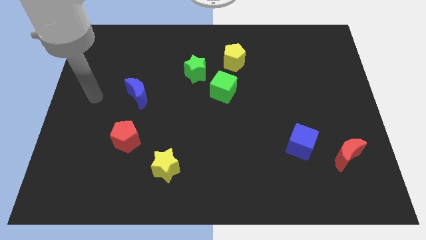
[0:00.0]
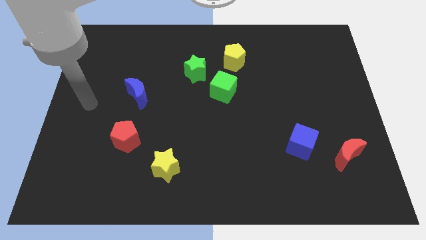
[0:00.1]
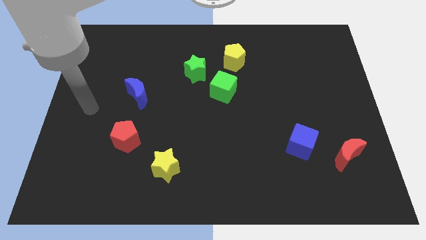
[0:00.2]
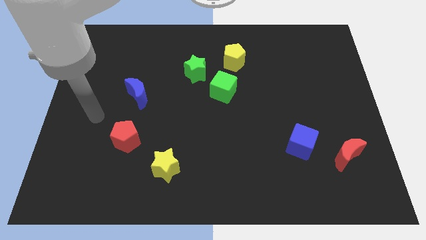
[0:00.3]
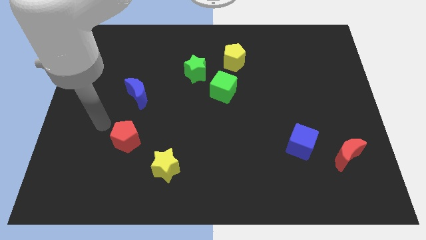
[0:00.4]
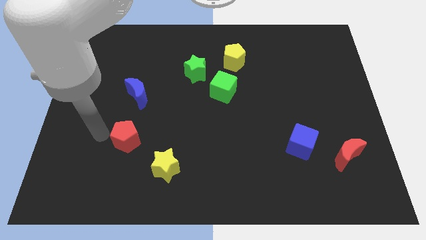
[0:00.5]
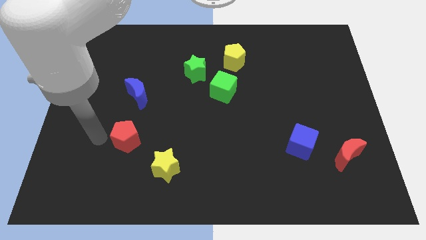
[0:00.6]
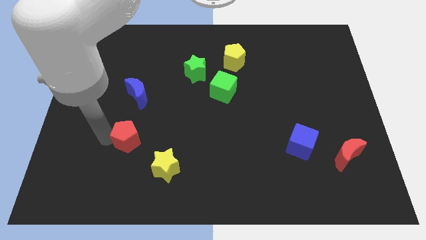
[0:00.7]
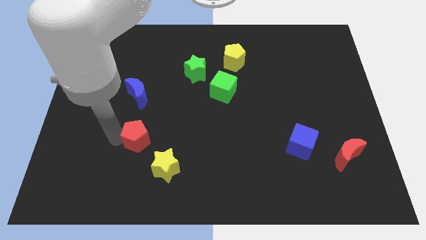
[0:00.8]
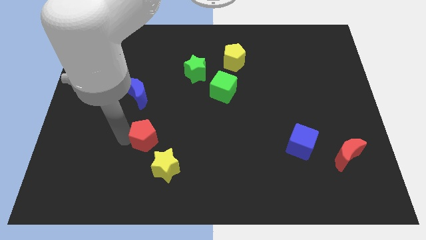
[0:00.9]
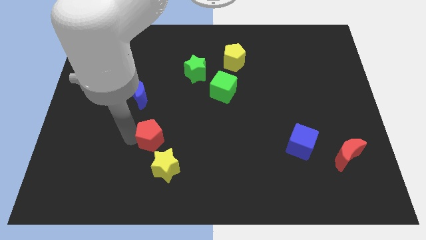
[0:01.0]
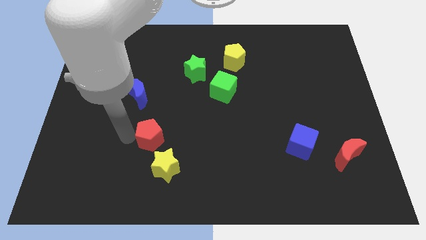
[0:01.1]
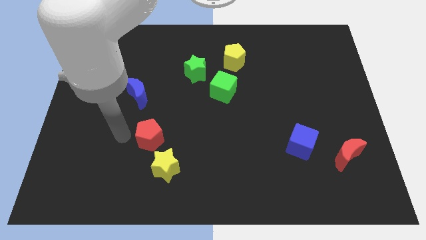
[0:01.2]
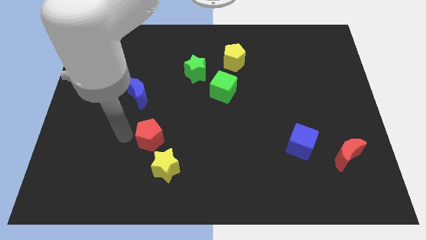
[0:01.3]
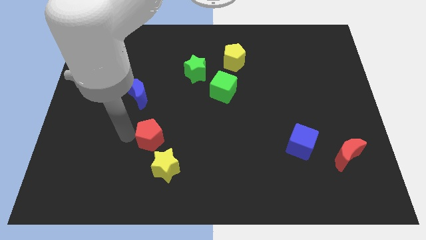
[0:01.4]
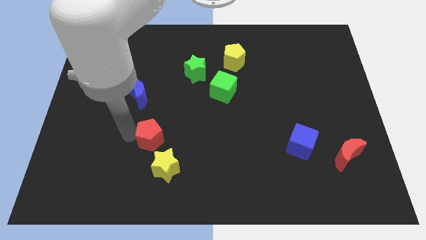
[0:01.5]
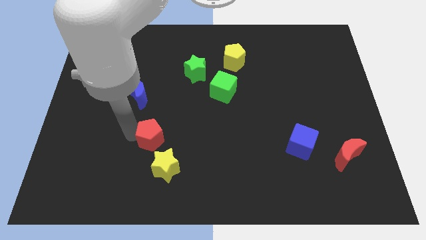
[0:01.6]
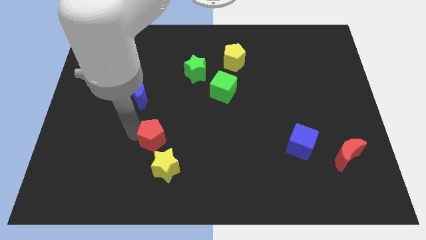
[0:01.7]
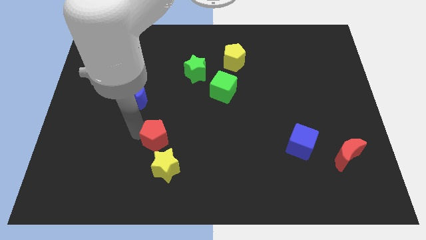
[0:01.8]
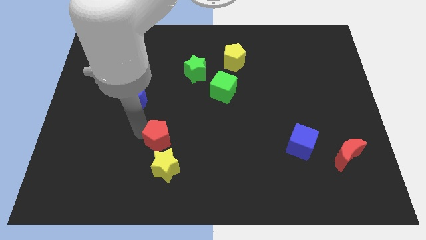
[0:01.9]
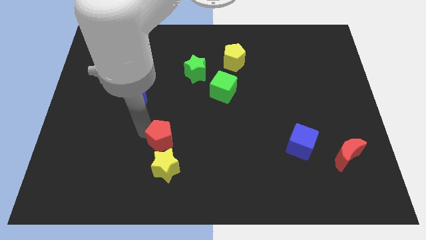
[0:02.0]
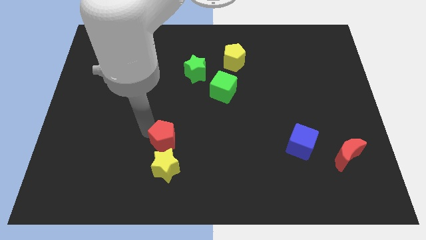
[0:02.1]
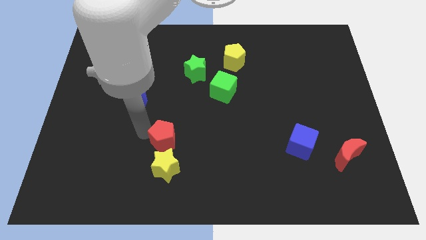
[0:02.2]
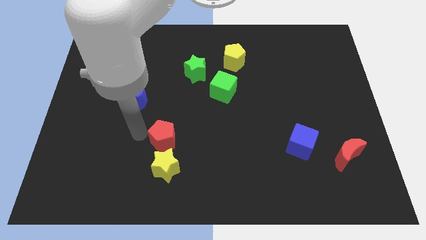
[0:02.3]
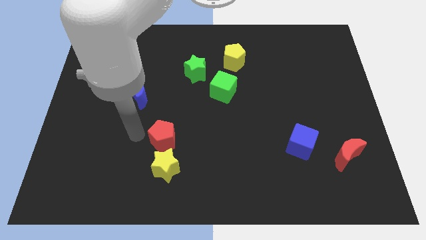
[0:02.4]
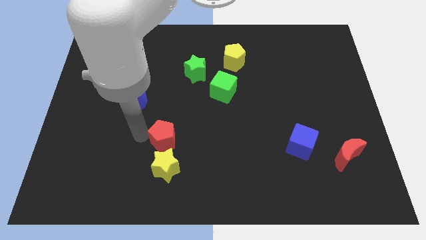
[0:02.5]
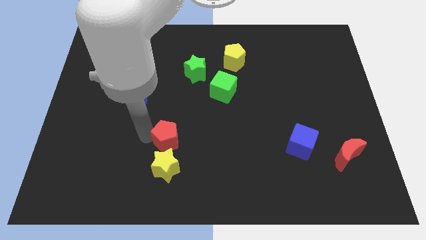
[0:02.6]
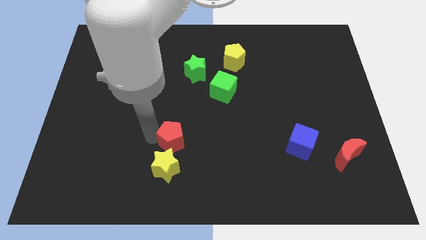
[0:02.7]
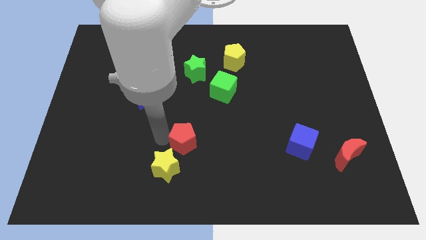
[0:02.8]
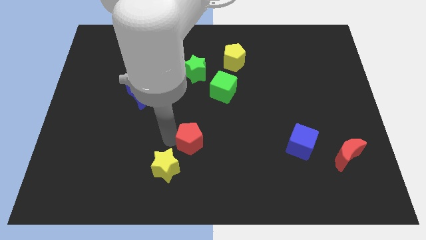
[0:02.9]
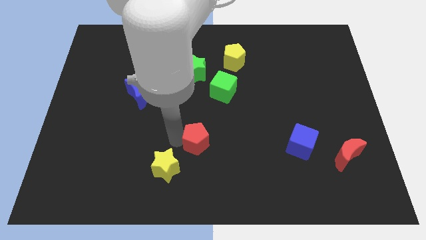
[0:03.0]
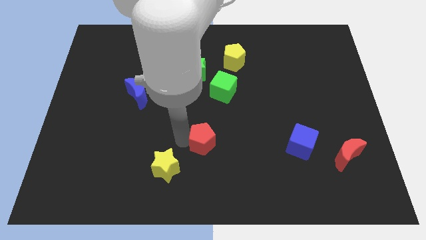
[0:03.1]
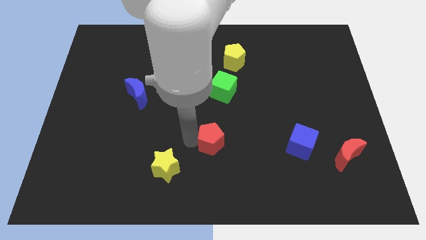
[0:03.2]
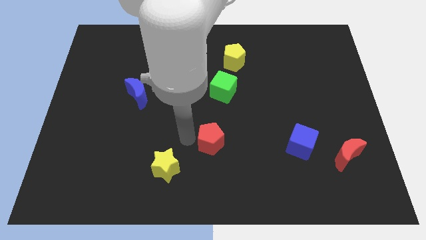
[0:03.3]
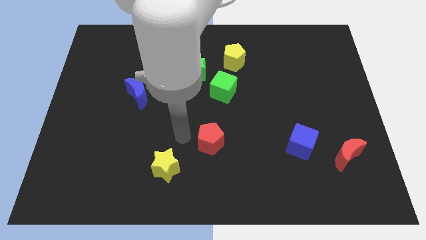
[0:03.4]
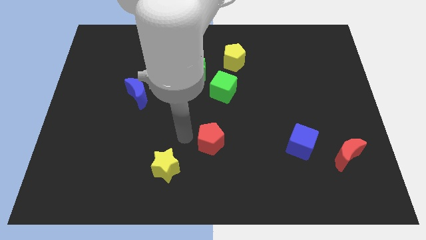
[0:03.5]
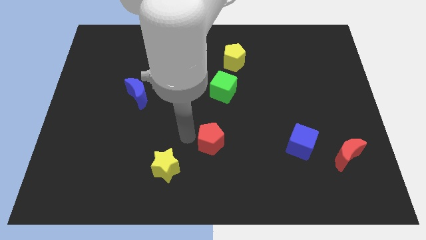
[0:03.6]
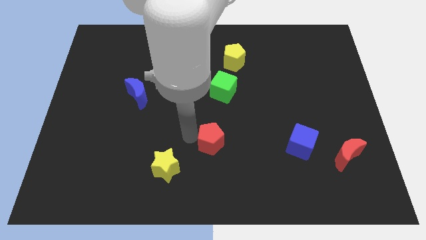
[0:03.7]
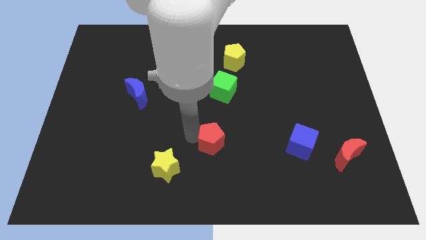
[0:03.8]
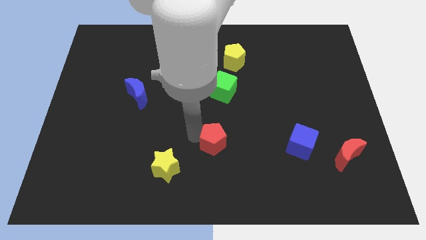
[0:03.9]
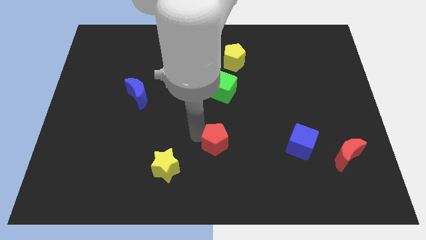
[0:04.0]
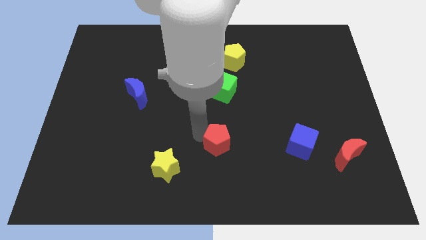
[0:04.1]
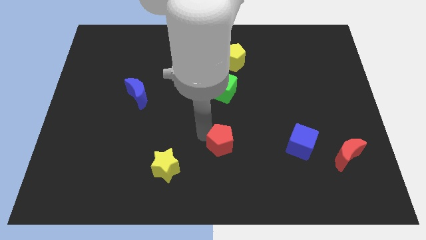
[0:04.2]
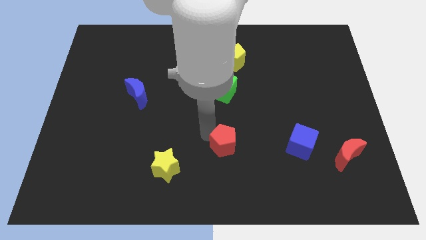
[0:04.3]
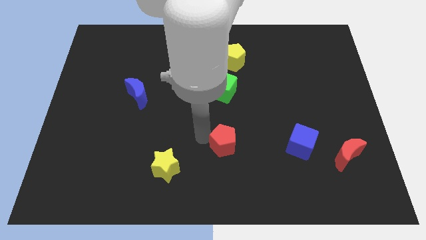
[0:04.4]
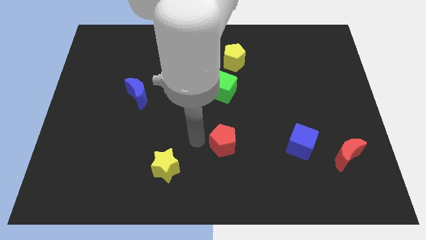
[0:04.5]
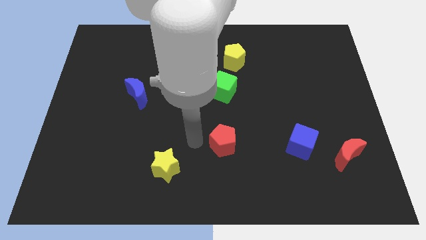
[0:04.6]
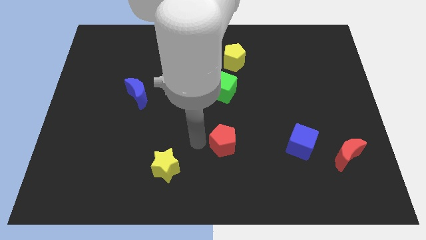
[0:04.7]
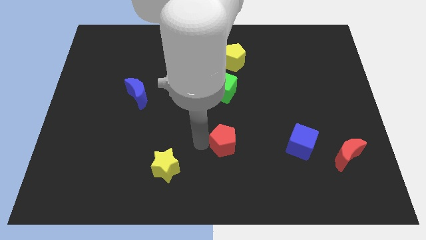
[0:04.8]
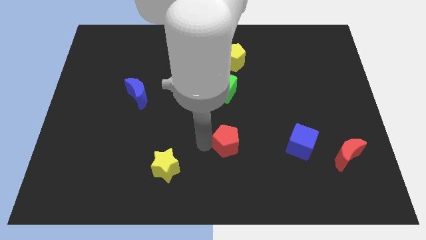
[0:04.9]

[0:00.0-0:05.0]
slide the red pentagon just left of the blue cube

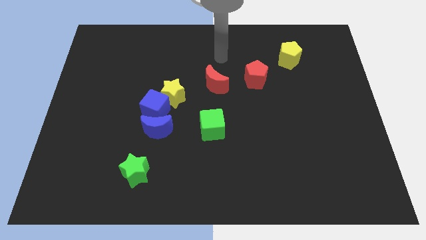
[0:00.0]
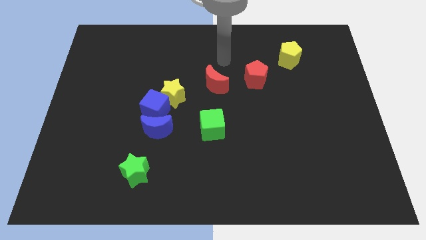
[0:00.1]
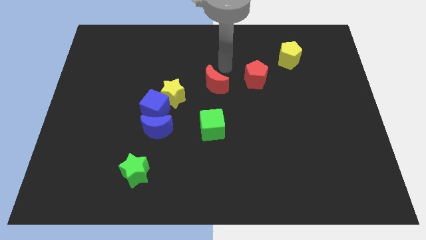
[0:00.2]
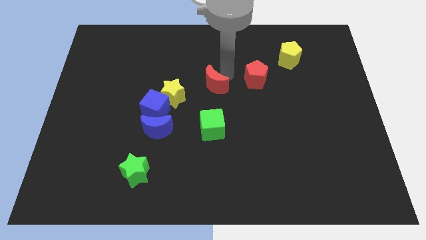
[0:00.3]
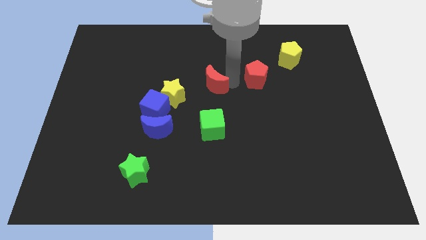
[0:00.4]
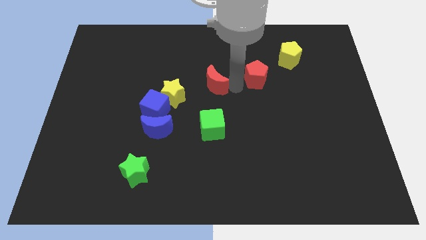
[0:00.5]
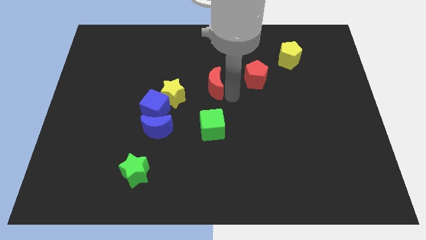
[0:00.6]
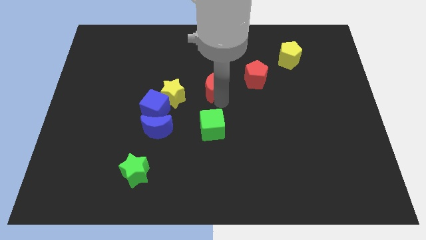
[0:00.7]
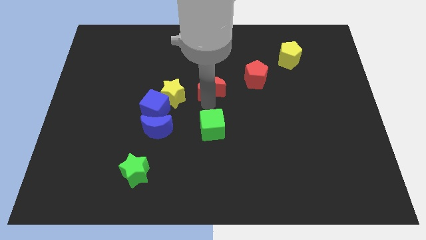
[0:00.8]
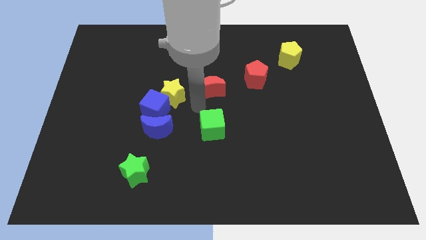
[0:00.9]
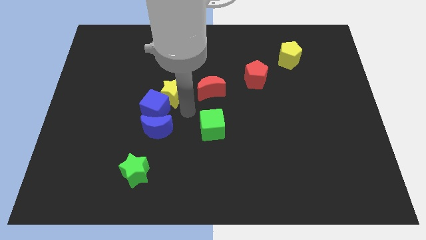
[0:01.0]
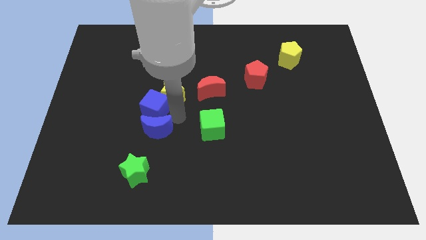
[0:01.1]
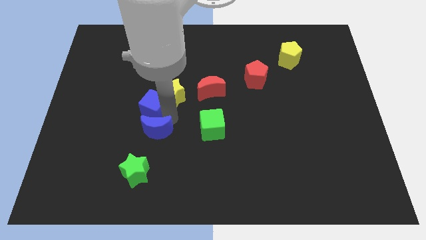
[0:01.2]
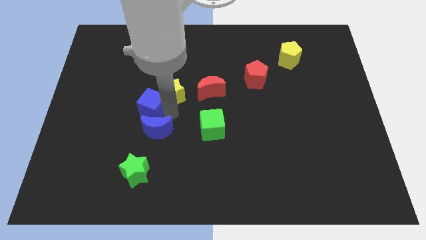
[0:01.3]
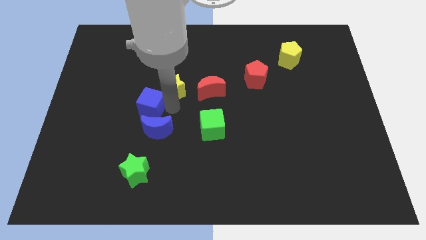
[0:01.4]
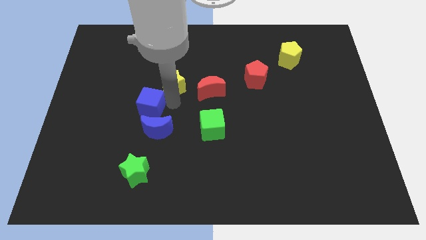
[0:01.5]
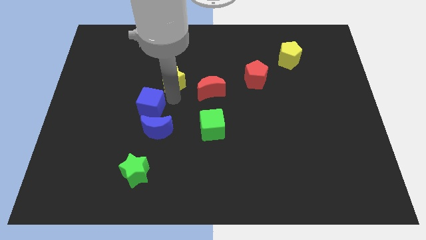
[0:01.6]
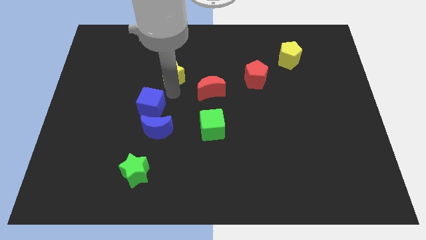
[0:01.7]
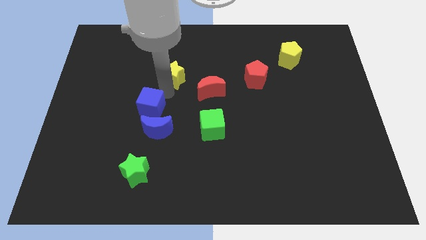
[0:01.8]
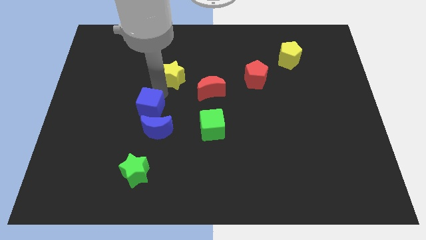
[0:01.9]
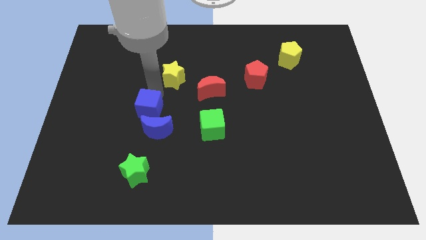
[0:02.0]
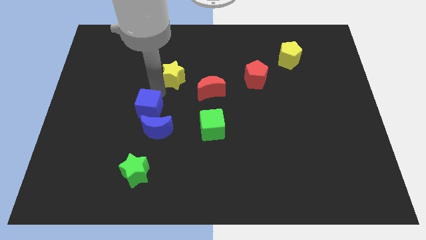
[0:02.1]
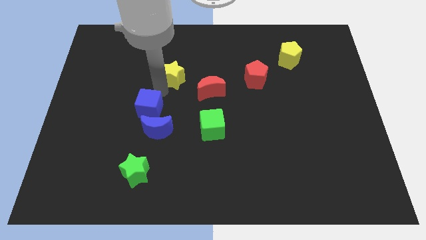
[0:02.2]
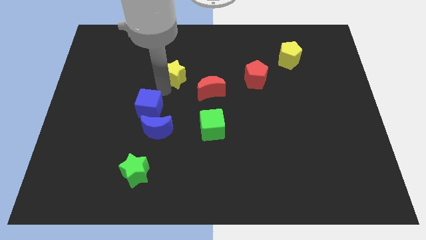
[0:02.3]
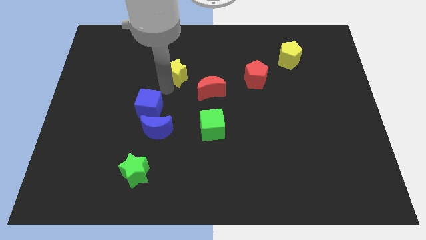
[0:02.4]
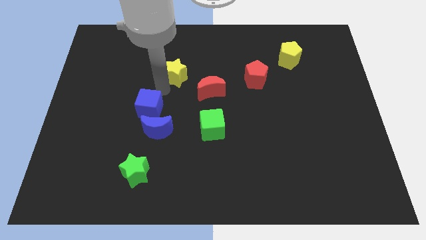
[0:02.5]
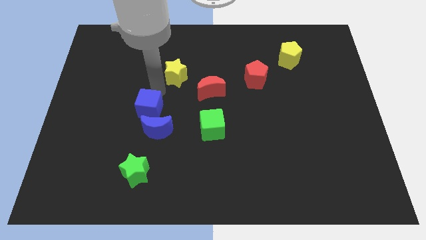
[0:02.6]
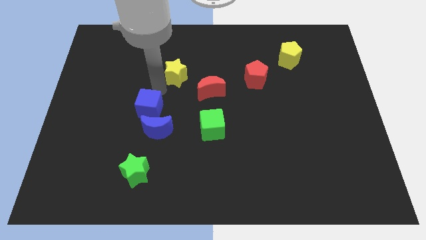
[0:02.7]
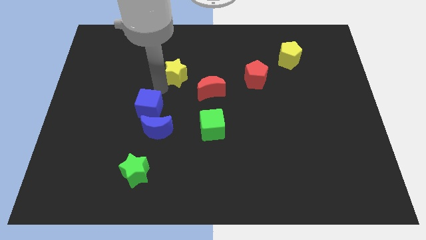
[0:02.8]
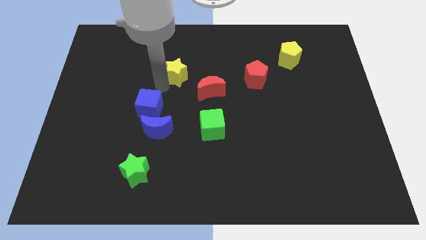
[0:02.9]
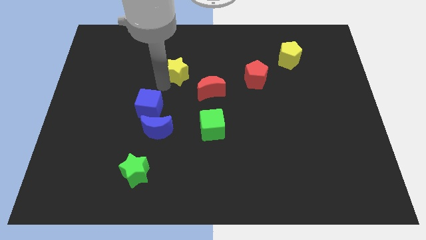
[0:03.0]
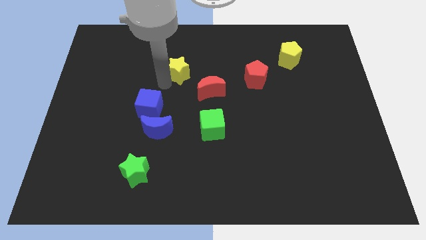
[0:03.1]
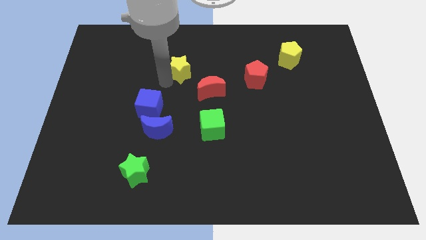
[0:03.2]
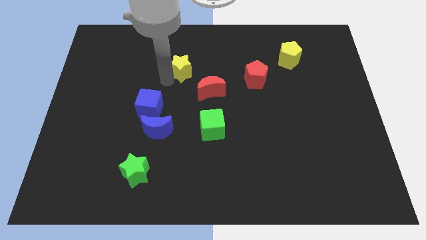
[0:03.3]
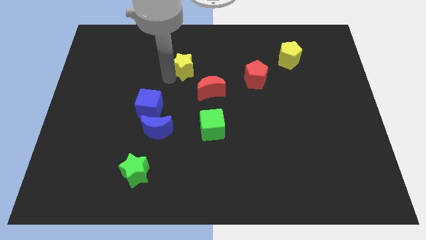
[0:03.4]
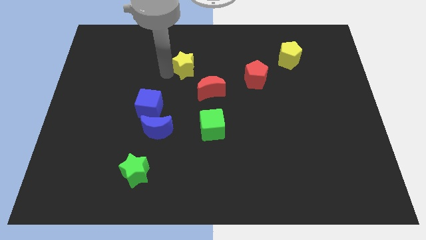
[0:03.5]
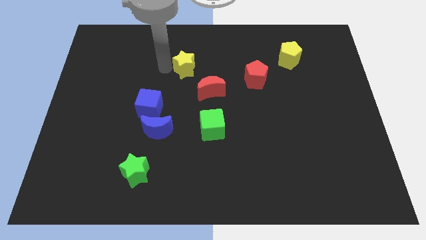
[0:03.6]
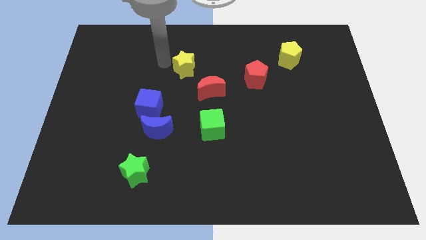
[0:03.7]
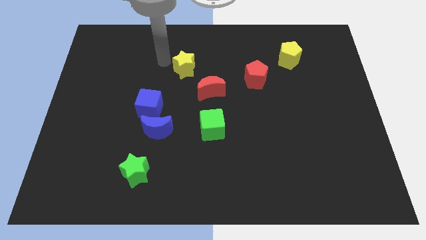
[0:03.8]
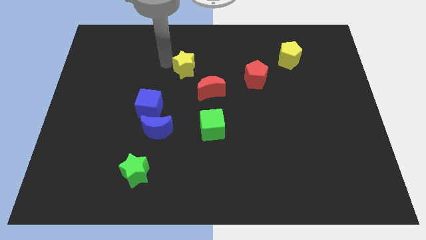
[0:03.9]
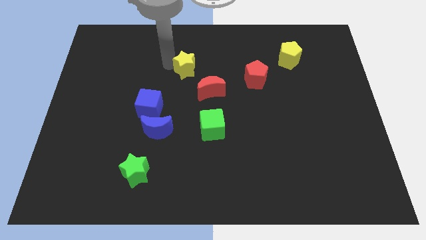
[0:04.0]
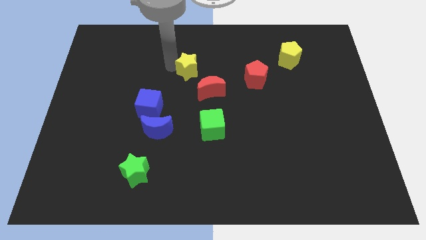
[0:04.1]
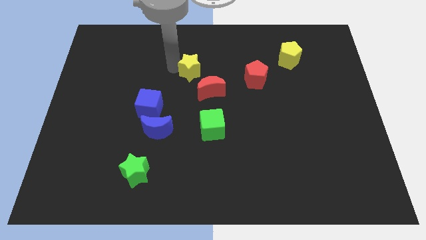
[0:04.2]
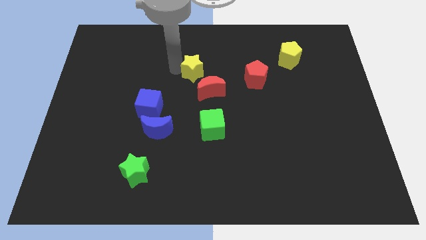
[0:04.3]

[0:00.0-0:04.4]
put the yellow star left of the red pentagon
